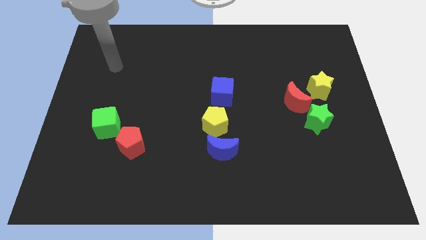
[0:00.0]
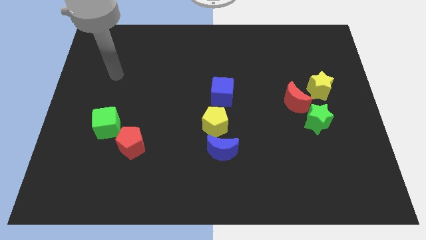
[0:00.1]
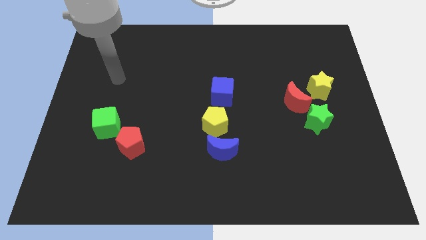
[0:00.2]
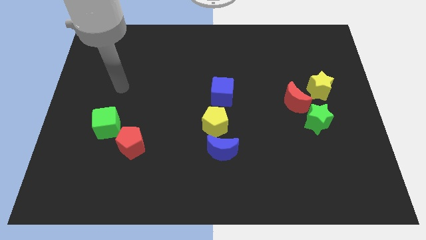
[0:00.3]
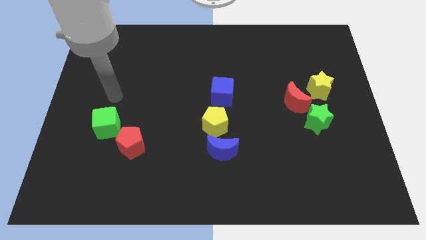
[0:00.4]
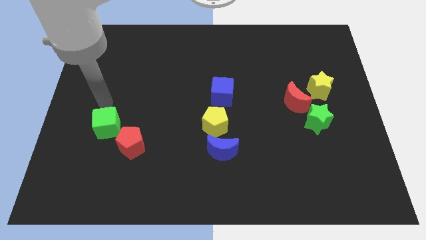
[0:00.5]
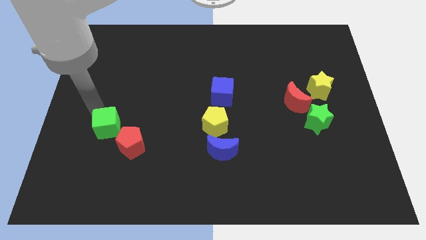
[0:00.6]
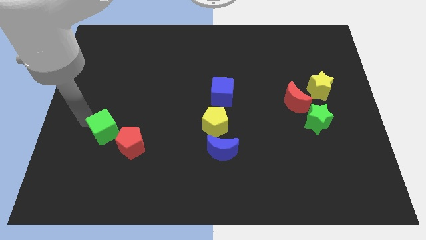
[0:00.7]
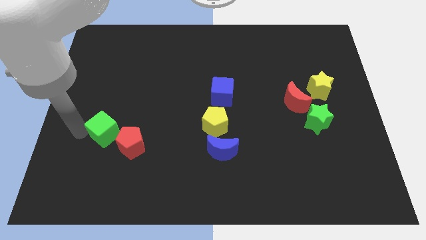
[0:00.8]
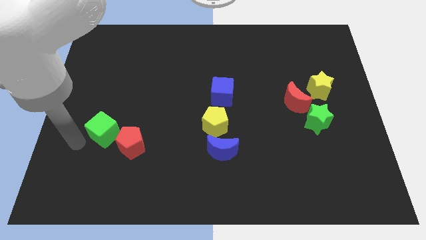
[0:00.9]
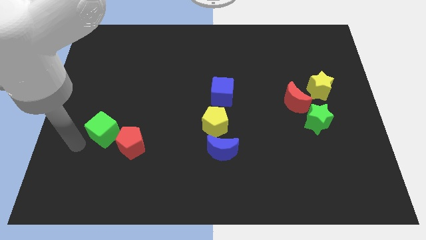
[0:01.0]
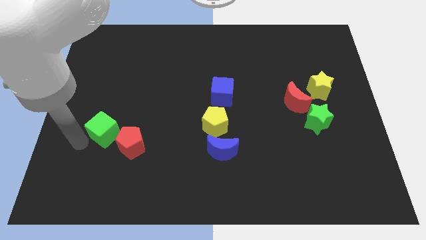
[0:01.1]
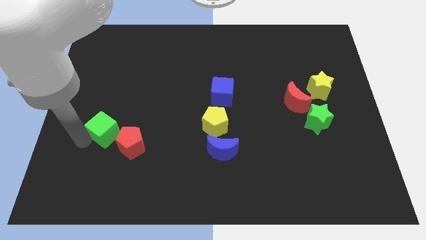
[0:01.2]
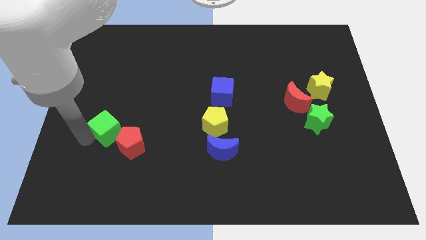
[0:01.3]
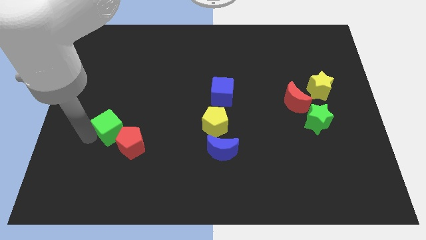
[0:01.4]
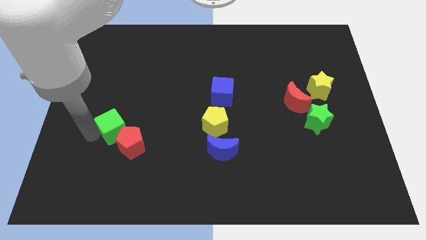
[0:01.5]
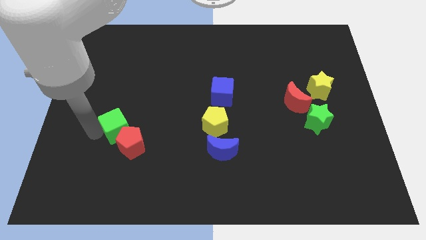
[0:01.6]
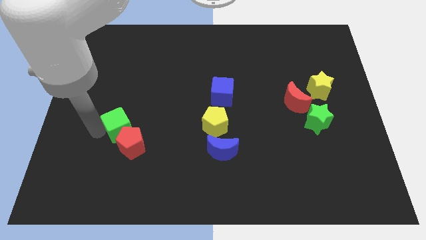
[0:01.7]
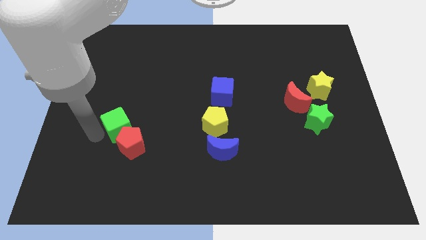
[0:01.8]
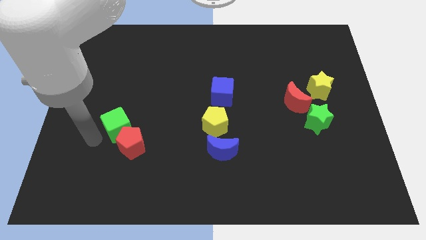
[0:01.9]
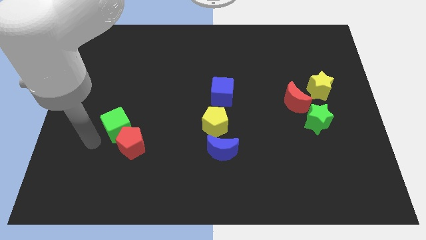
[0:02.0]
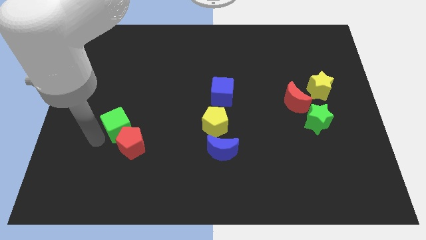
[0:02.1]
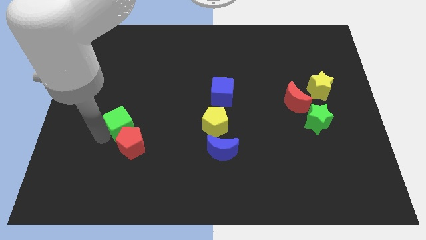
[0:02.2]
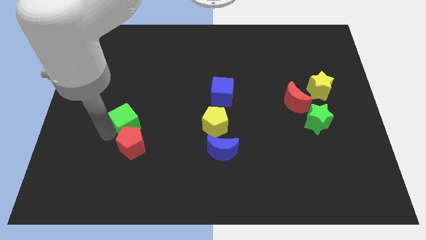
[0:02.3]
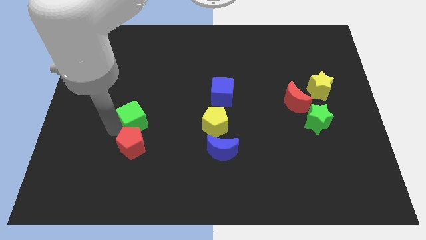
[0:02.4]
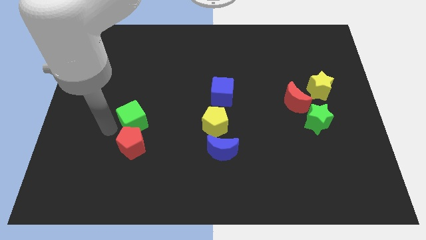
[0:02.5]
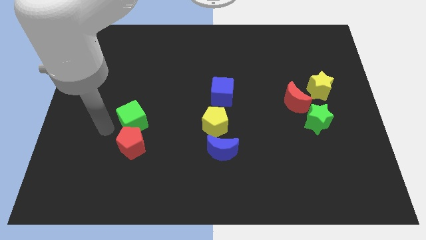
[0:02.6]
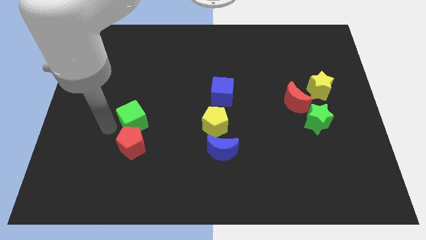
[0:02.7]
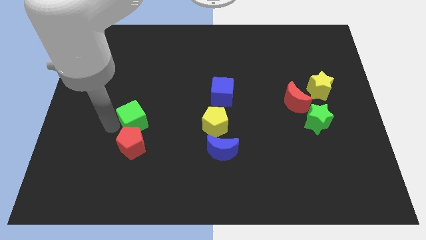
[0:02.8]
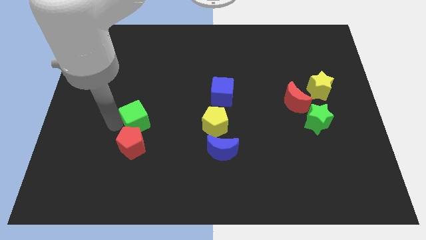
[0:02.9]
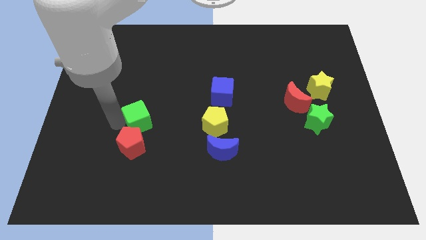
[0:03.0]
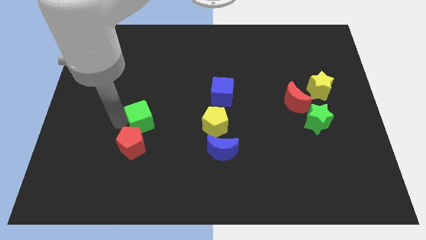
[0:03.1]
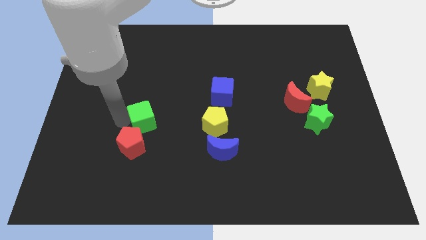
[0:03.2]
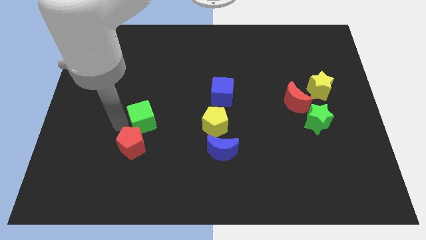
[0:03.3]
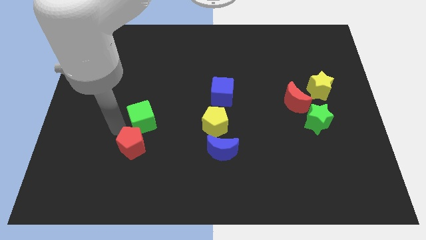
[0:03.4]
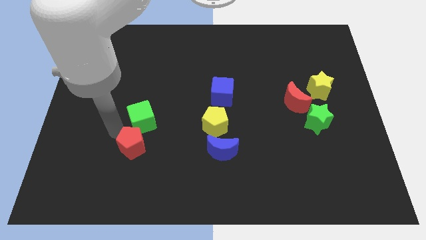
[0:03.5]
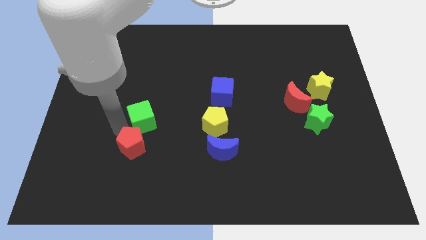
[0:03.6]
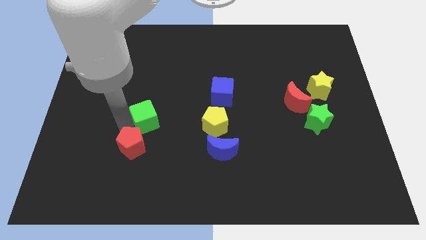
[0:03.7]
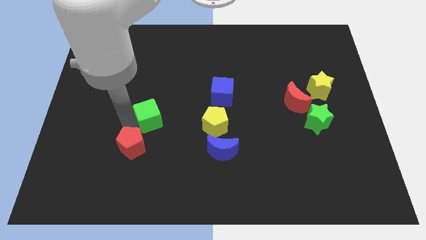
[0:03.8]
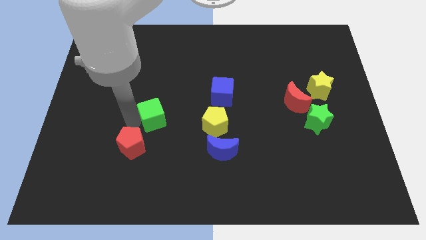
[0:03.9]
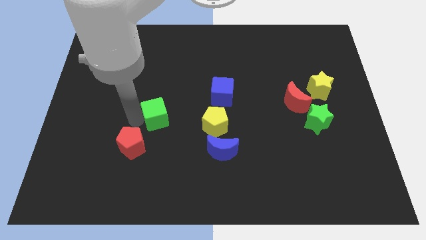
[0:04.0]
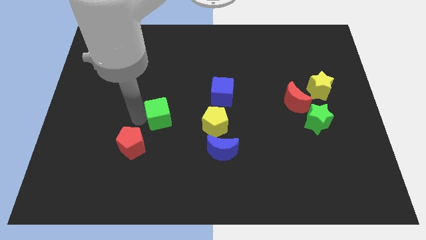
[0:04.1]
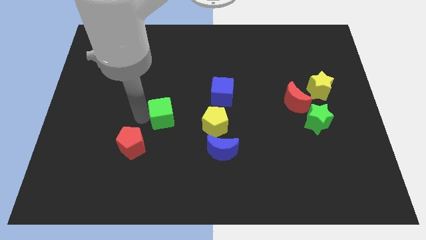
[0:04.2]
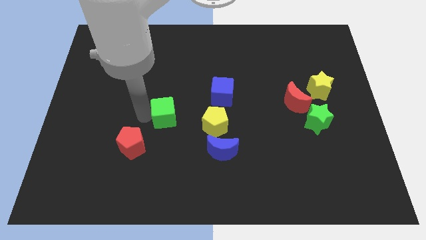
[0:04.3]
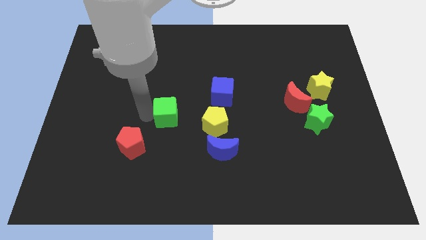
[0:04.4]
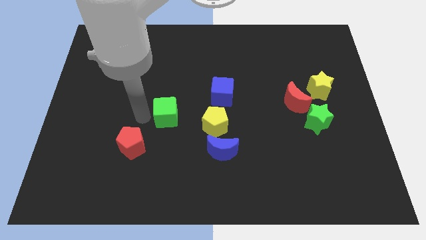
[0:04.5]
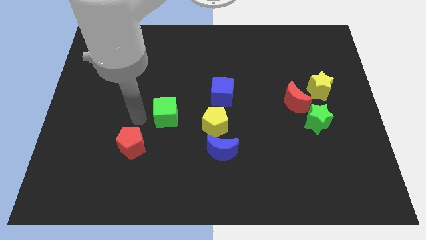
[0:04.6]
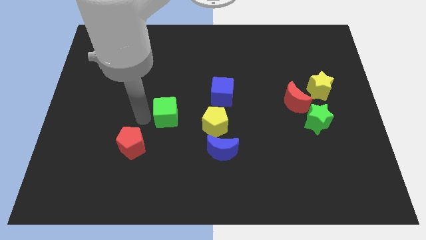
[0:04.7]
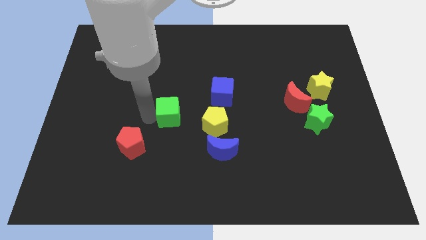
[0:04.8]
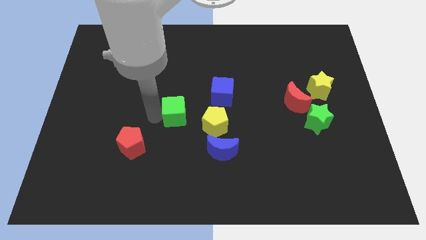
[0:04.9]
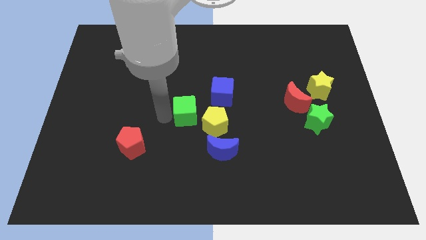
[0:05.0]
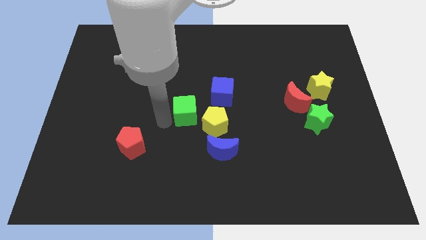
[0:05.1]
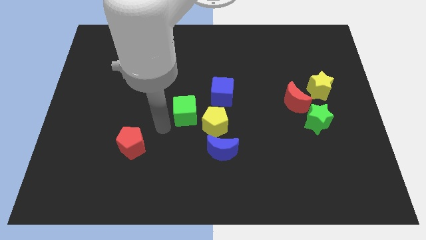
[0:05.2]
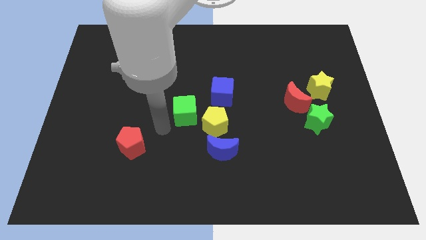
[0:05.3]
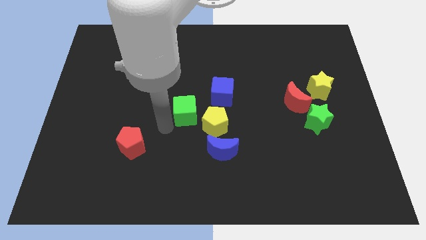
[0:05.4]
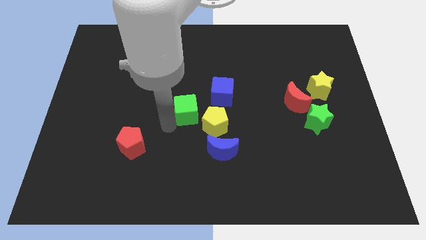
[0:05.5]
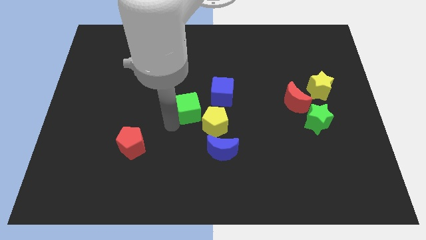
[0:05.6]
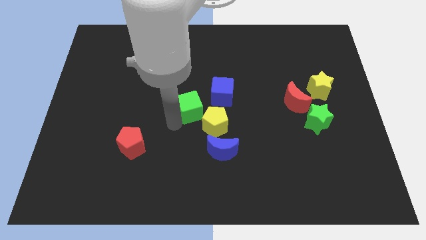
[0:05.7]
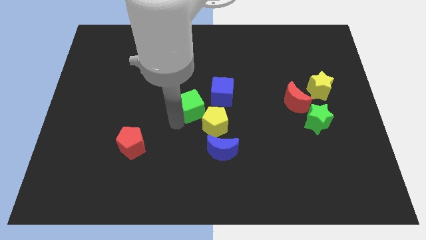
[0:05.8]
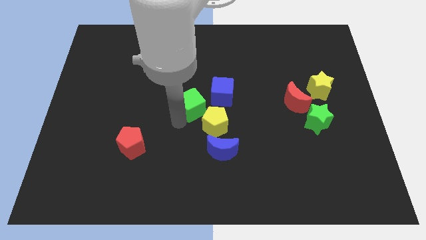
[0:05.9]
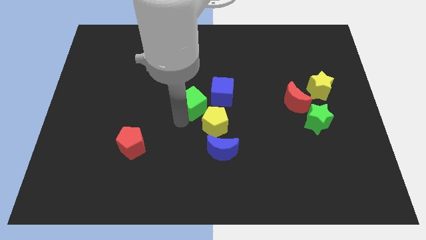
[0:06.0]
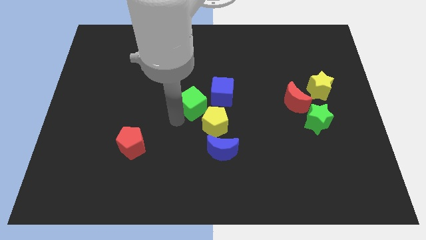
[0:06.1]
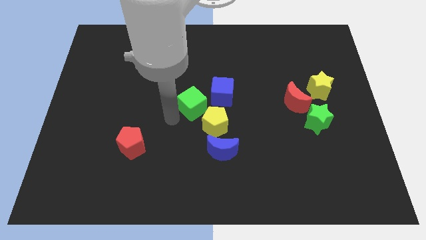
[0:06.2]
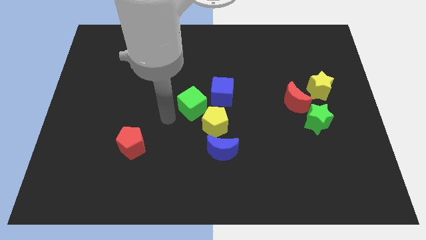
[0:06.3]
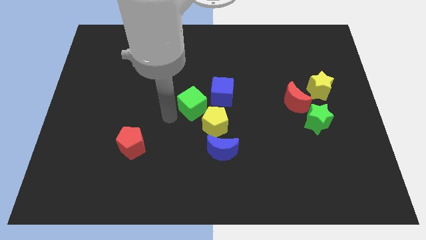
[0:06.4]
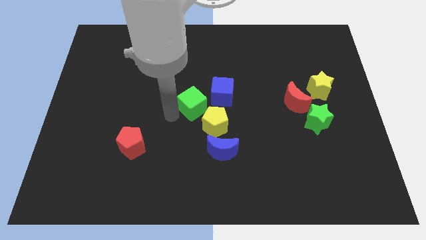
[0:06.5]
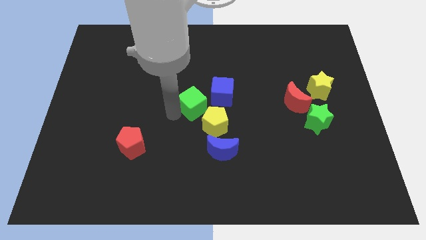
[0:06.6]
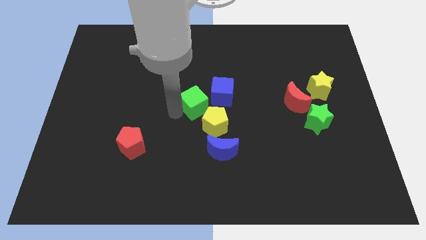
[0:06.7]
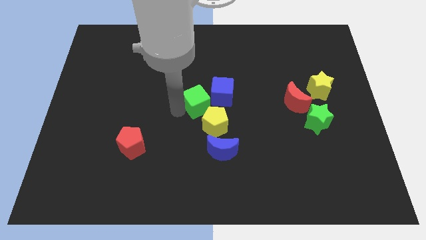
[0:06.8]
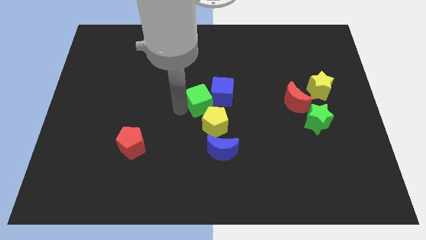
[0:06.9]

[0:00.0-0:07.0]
move the green cube close to the blue cube

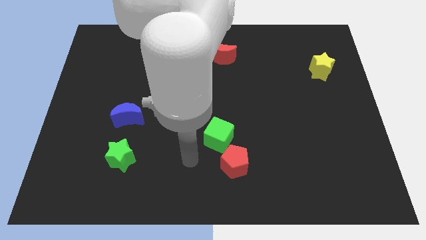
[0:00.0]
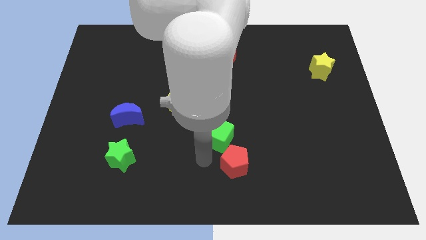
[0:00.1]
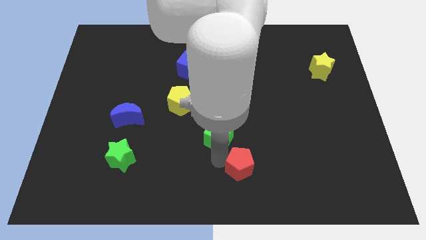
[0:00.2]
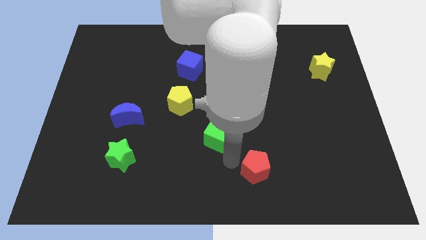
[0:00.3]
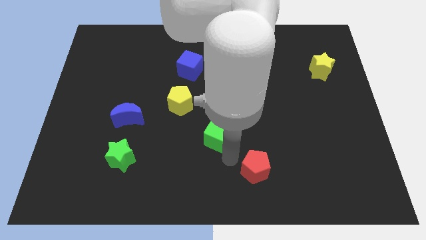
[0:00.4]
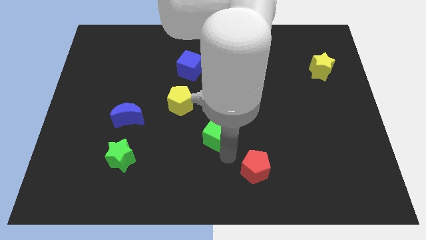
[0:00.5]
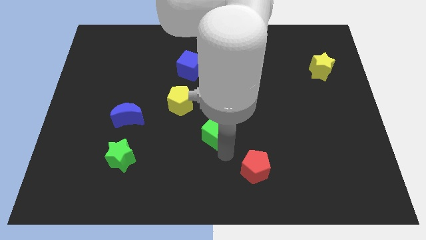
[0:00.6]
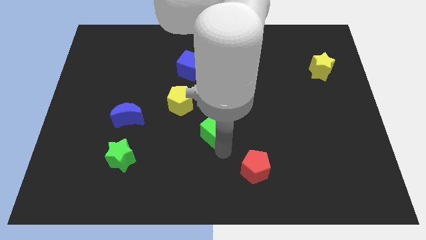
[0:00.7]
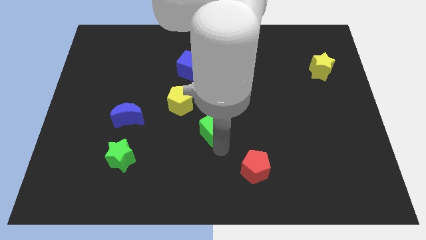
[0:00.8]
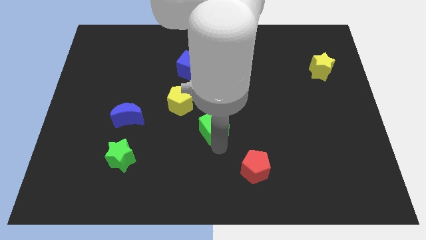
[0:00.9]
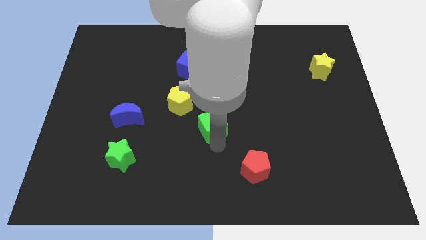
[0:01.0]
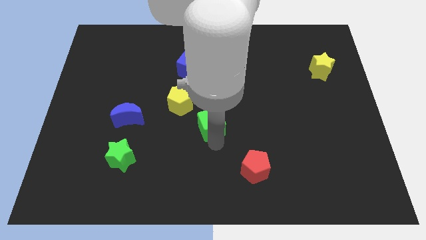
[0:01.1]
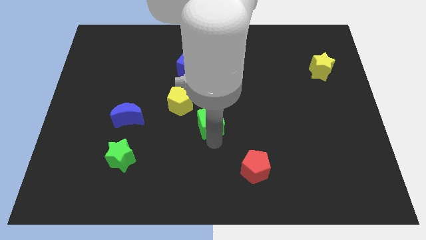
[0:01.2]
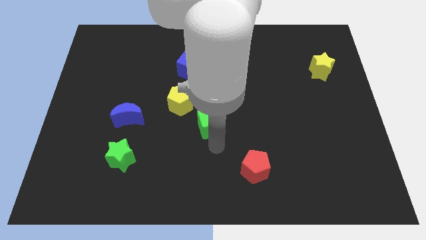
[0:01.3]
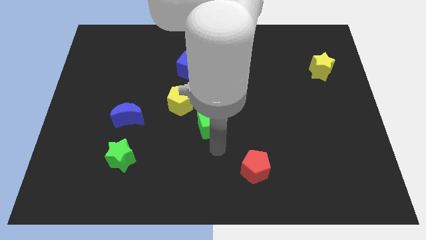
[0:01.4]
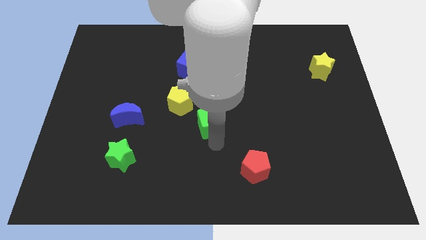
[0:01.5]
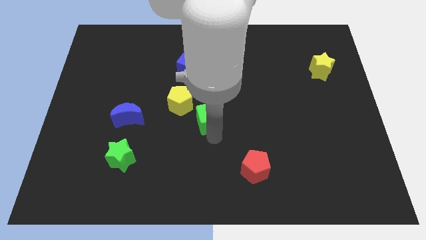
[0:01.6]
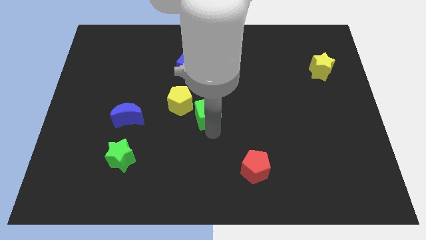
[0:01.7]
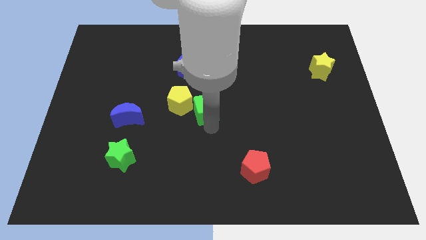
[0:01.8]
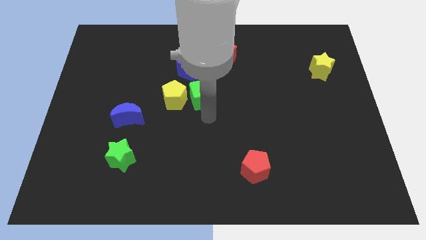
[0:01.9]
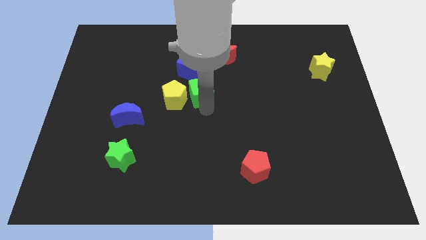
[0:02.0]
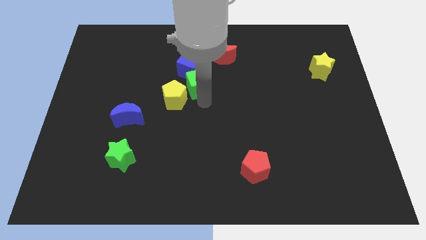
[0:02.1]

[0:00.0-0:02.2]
move the green cube towards the blue cube
